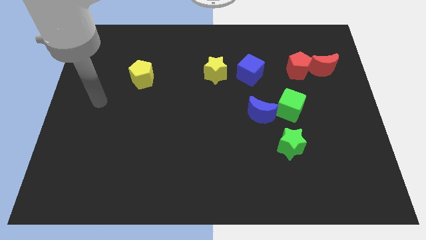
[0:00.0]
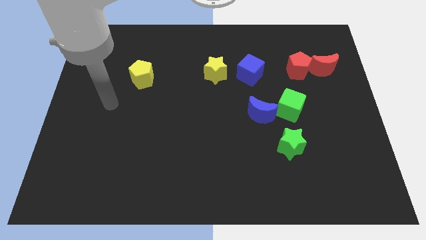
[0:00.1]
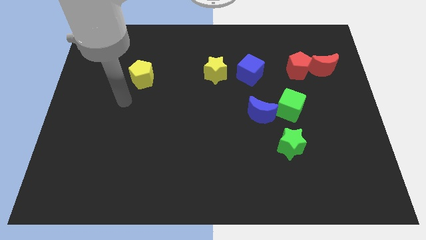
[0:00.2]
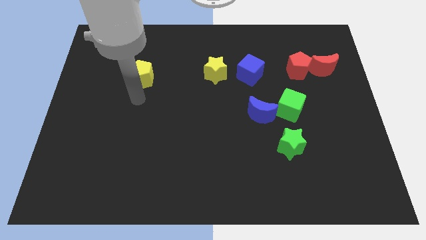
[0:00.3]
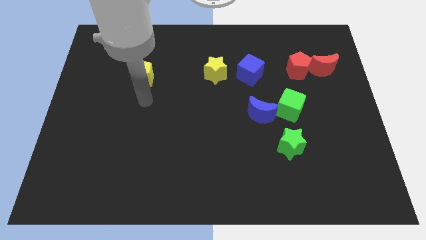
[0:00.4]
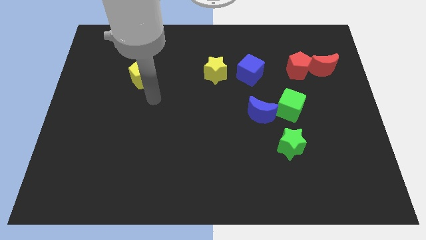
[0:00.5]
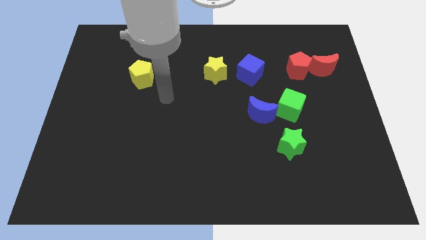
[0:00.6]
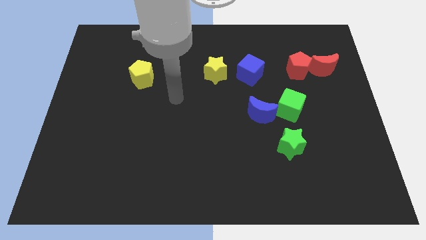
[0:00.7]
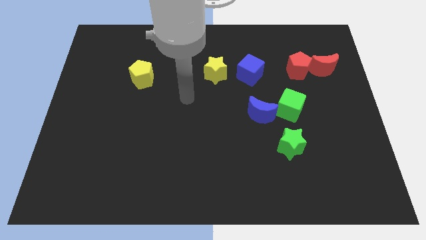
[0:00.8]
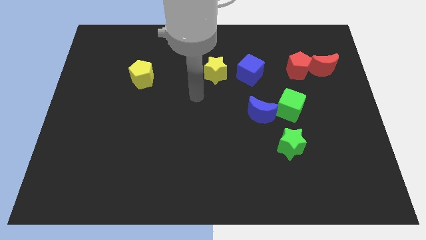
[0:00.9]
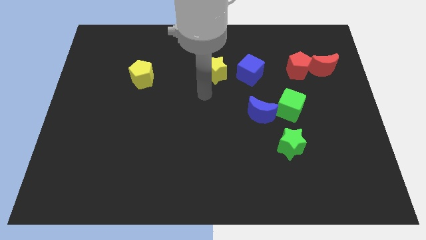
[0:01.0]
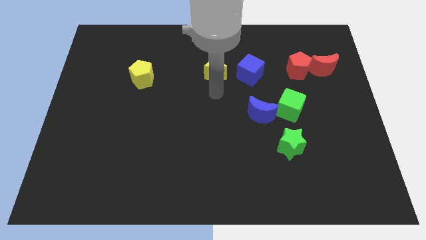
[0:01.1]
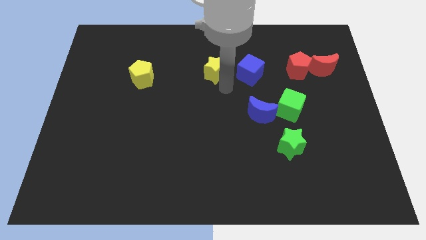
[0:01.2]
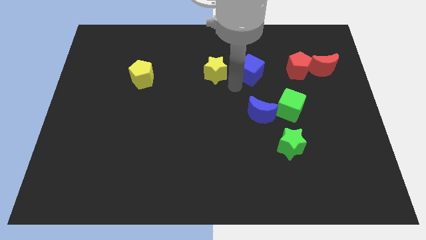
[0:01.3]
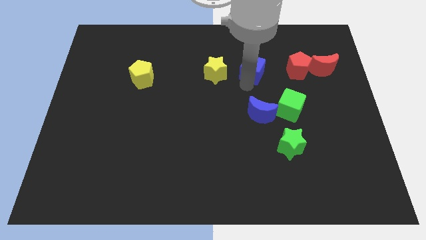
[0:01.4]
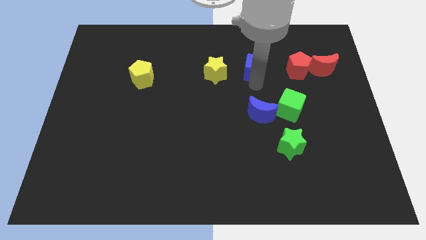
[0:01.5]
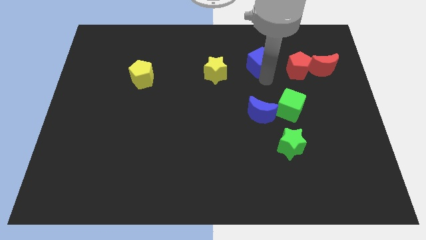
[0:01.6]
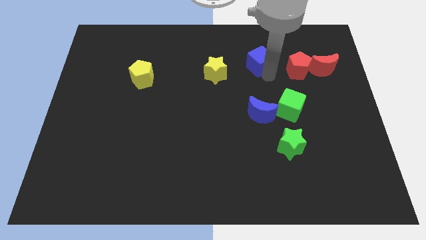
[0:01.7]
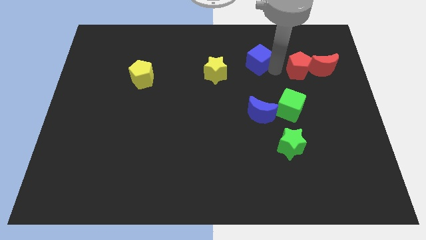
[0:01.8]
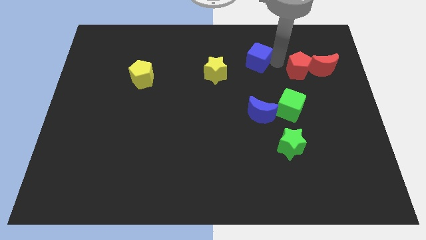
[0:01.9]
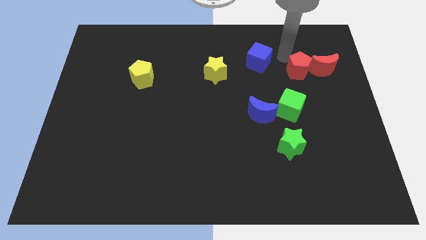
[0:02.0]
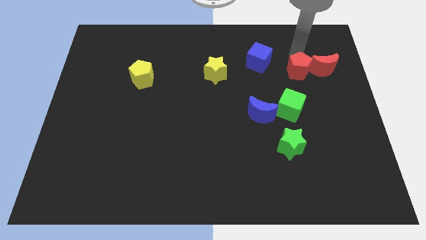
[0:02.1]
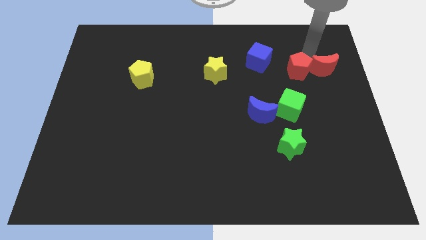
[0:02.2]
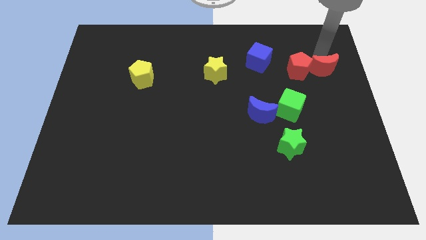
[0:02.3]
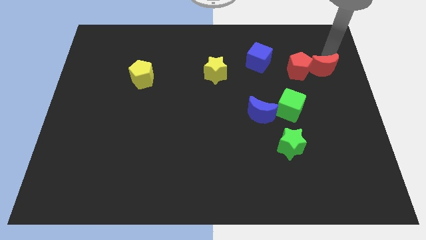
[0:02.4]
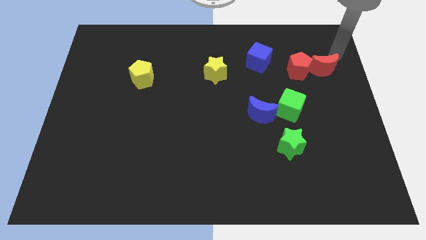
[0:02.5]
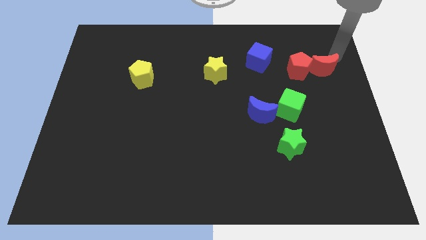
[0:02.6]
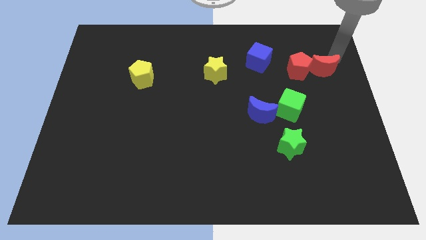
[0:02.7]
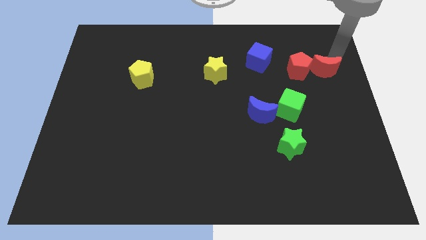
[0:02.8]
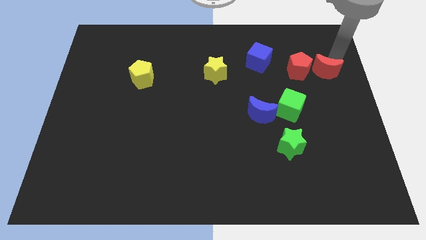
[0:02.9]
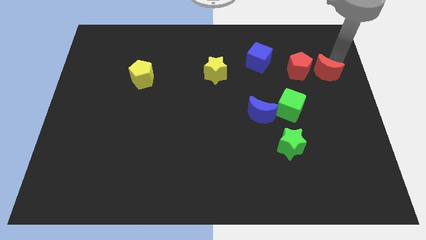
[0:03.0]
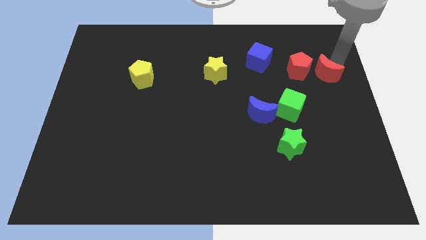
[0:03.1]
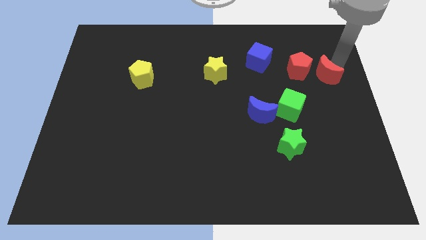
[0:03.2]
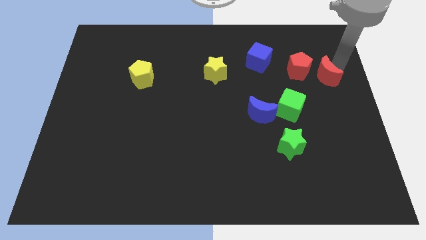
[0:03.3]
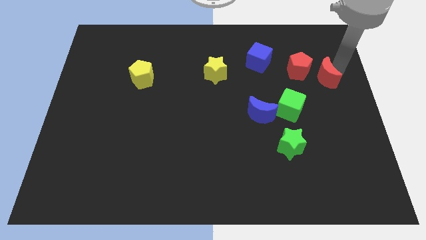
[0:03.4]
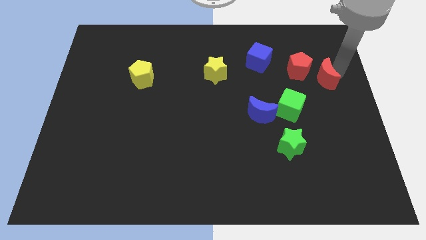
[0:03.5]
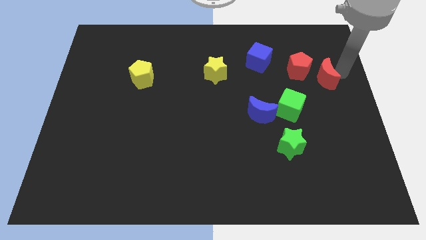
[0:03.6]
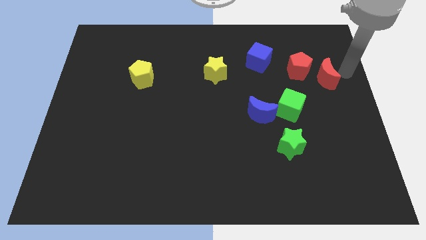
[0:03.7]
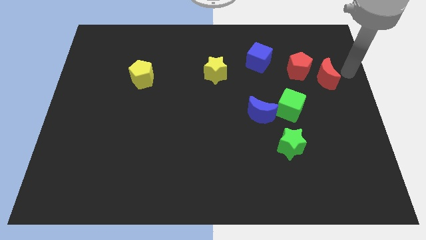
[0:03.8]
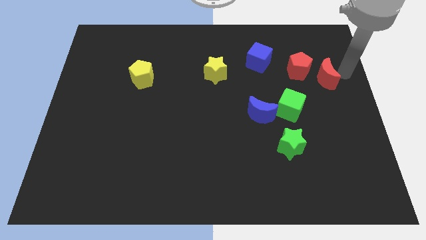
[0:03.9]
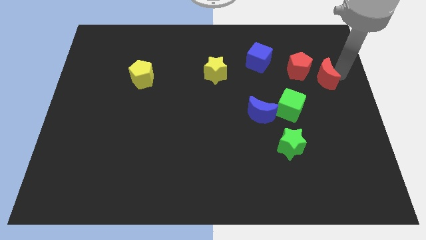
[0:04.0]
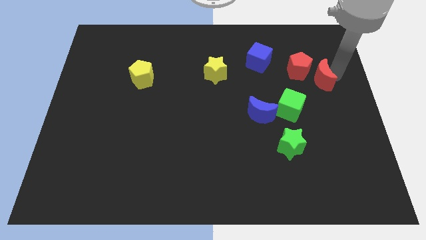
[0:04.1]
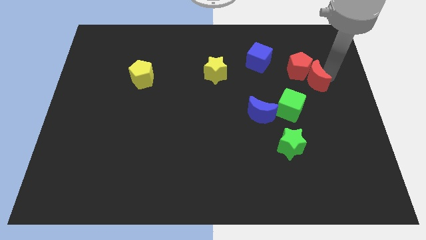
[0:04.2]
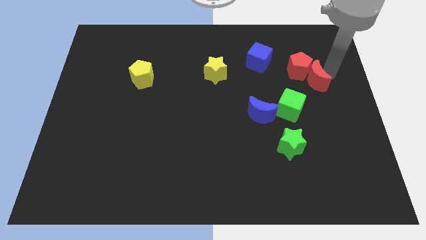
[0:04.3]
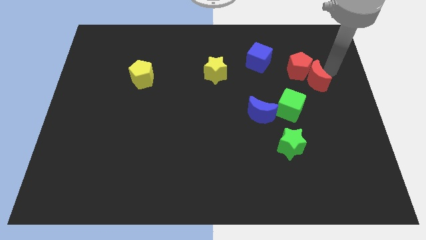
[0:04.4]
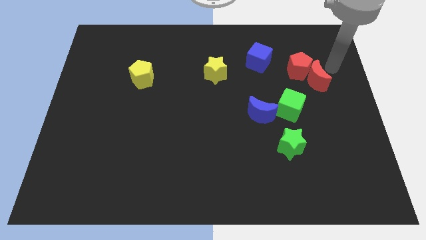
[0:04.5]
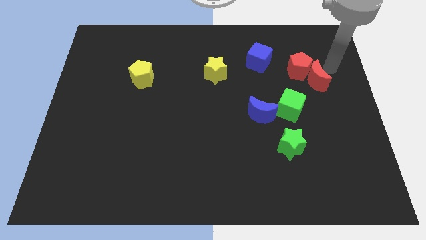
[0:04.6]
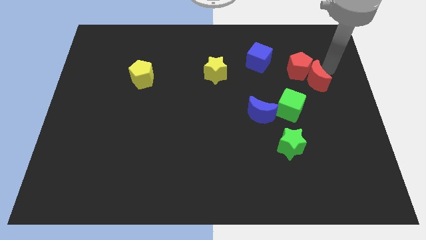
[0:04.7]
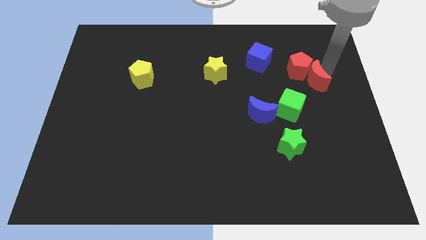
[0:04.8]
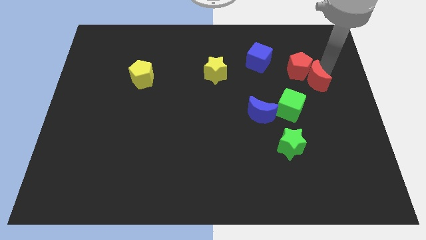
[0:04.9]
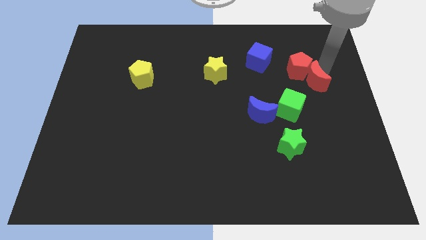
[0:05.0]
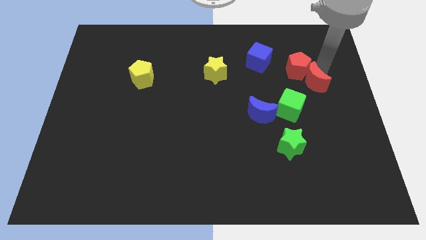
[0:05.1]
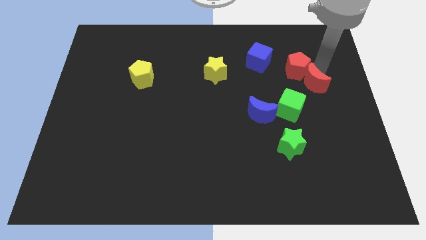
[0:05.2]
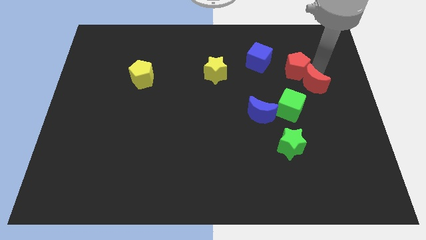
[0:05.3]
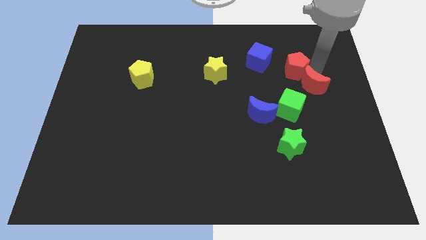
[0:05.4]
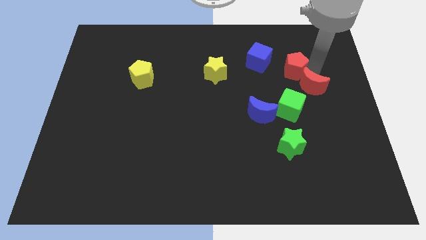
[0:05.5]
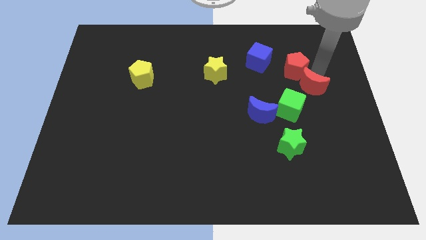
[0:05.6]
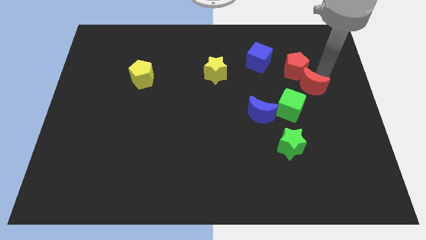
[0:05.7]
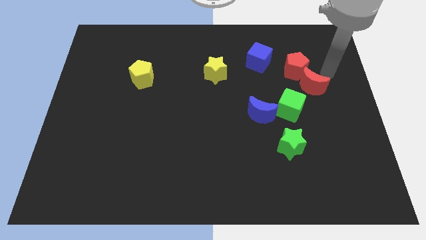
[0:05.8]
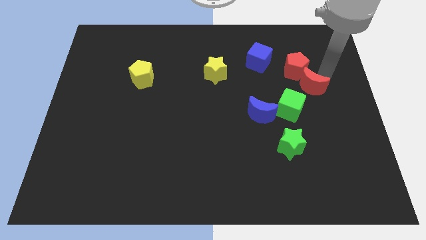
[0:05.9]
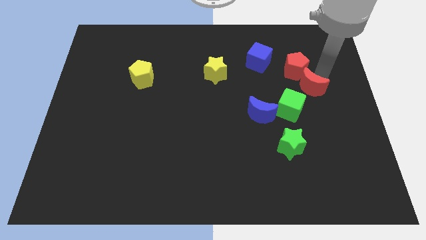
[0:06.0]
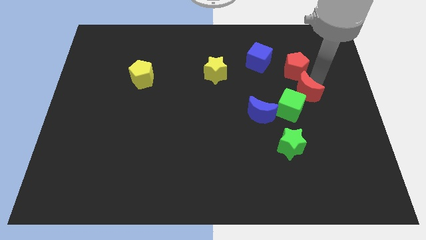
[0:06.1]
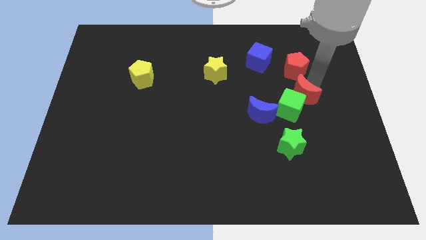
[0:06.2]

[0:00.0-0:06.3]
slide the red moon to the green cube
